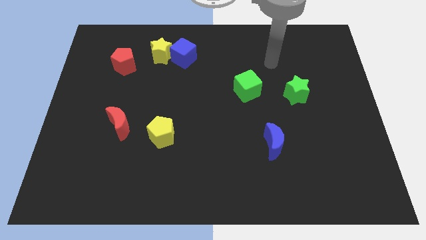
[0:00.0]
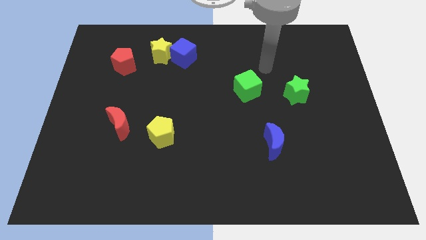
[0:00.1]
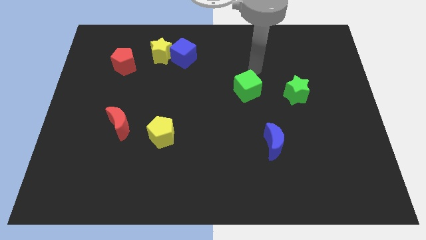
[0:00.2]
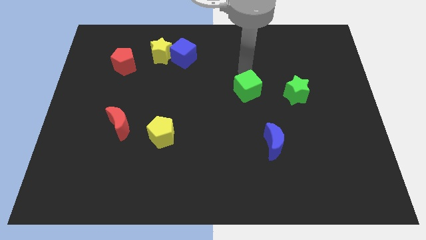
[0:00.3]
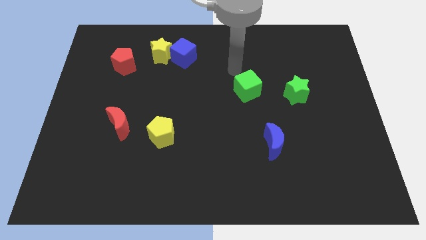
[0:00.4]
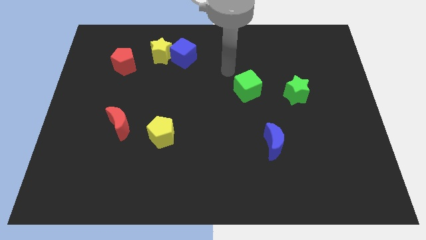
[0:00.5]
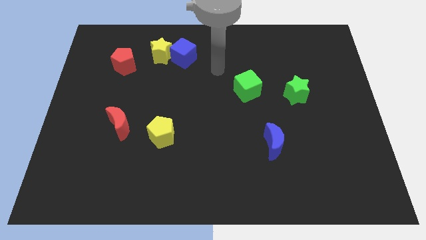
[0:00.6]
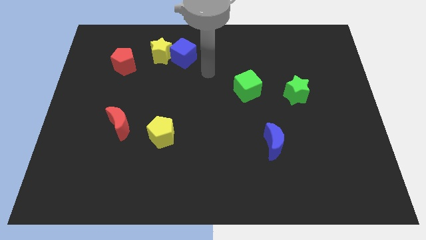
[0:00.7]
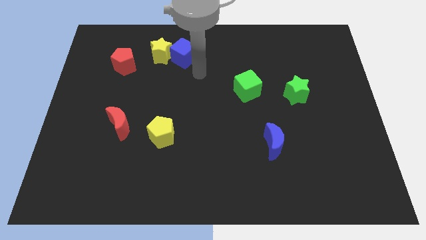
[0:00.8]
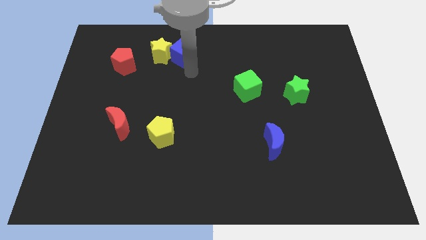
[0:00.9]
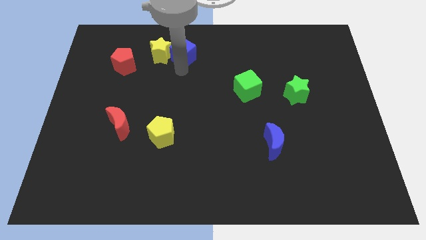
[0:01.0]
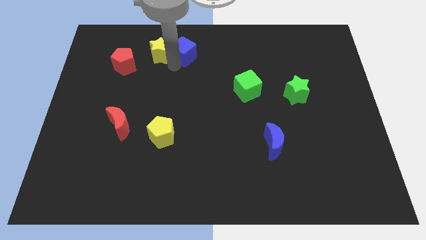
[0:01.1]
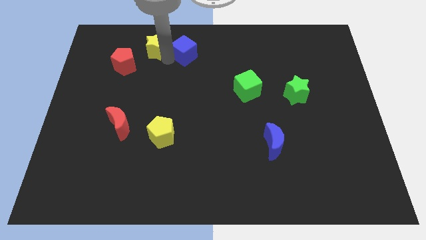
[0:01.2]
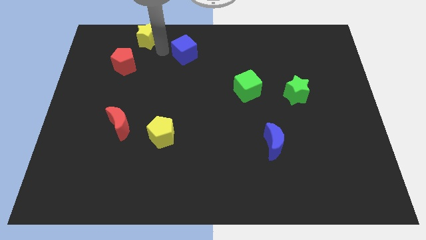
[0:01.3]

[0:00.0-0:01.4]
pull the blue cube apart from the yellow star

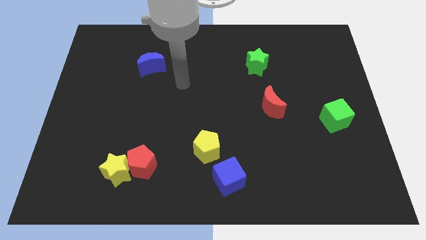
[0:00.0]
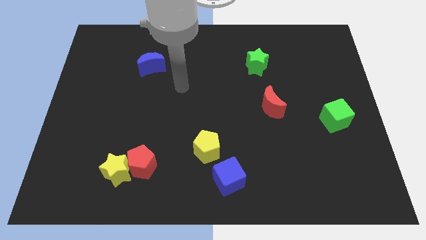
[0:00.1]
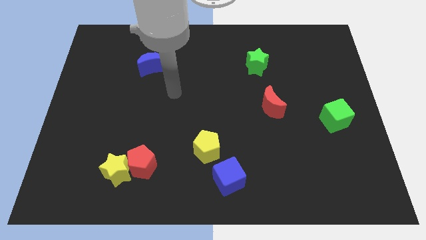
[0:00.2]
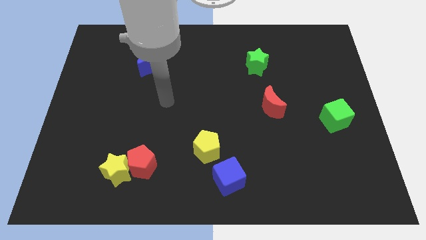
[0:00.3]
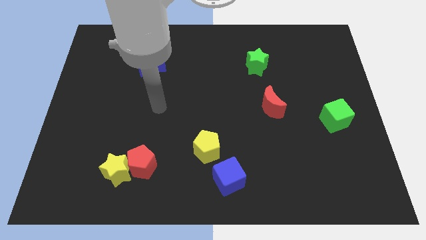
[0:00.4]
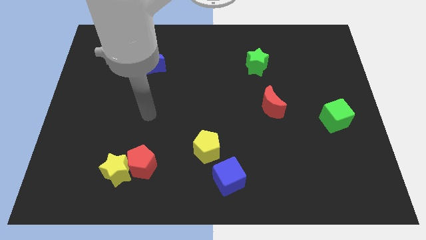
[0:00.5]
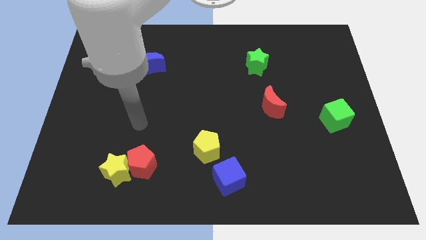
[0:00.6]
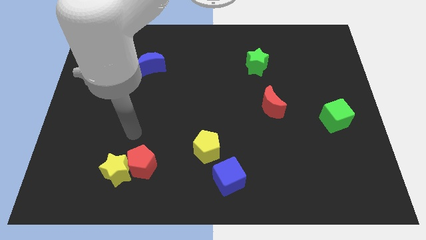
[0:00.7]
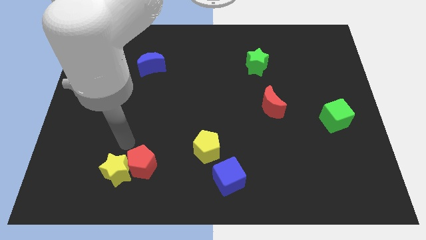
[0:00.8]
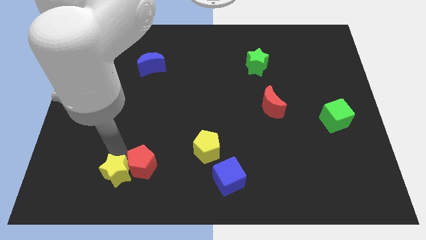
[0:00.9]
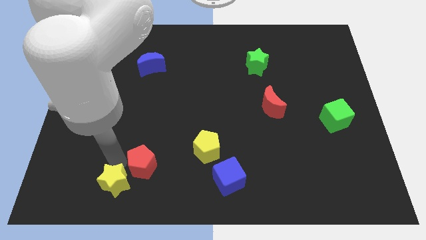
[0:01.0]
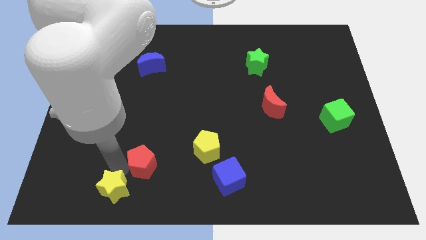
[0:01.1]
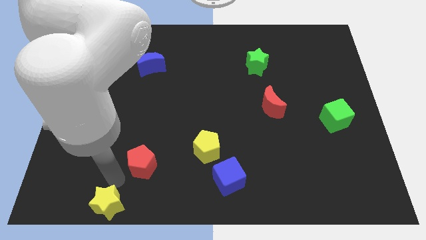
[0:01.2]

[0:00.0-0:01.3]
pull the red pentagon apart from the yellow star

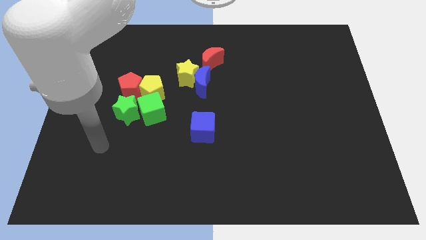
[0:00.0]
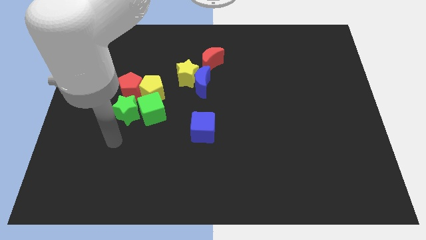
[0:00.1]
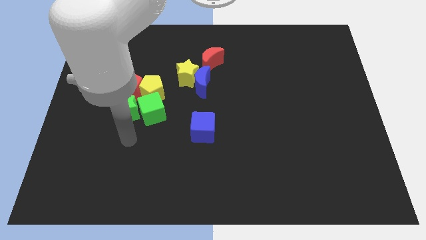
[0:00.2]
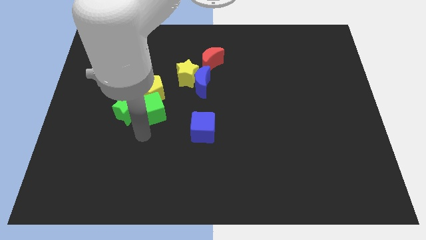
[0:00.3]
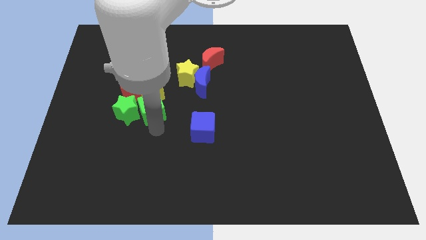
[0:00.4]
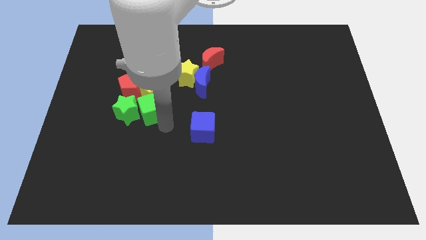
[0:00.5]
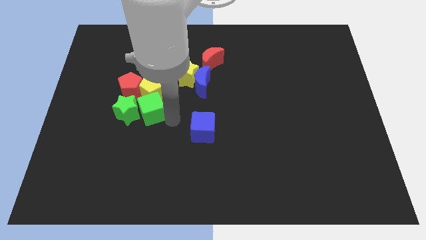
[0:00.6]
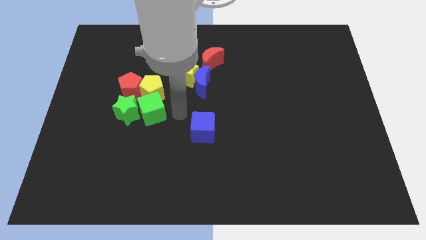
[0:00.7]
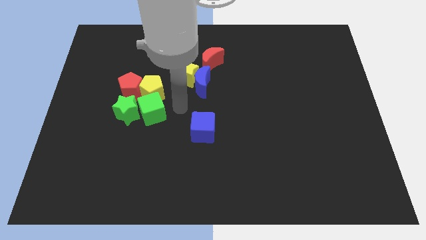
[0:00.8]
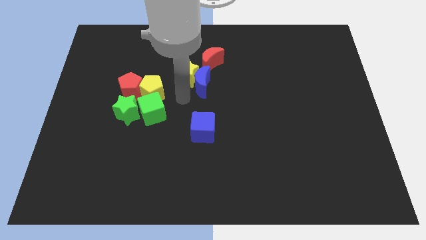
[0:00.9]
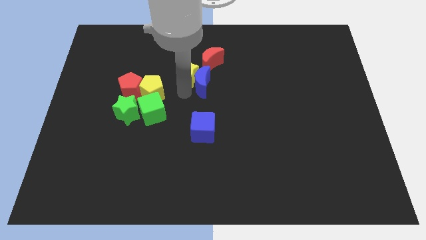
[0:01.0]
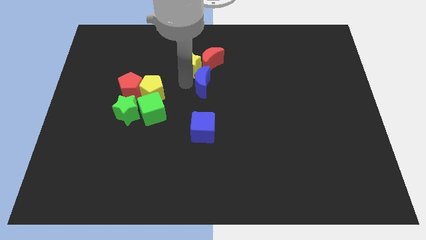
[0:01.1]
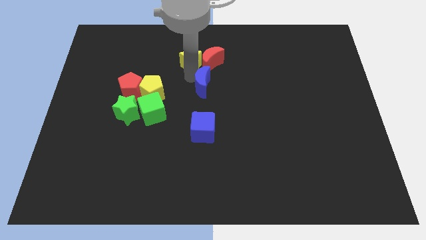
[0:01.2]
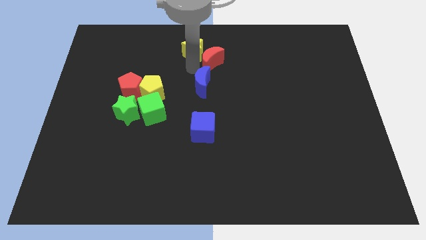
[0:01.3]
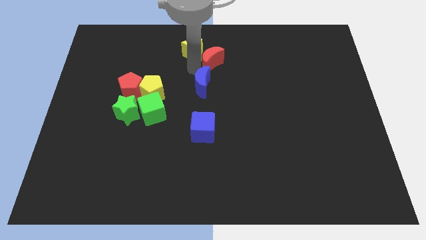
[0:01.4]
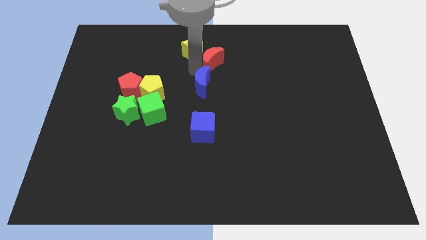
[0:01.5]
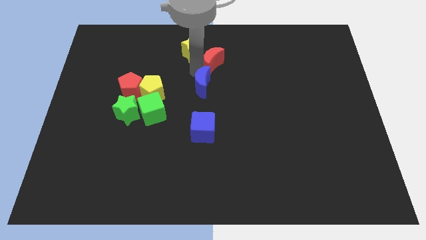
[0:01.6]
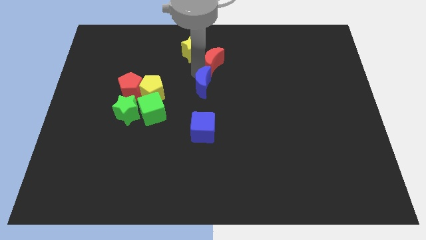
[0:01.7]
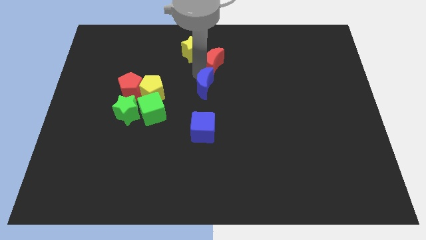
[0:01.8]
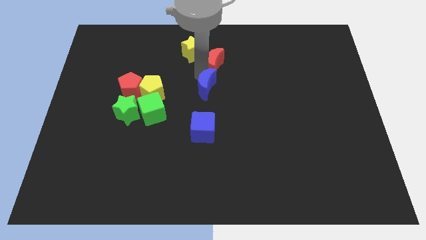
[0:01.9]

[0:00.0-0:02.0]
separate the blue moon from the yellow star and red moon

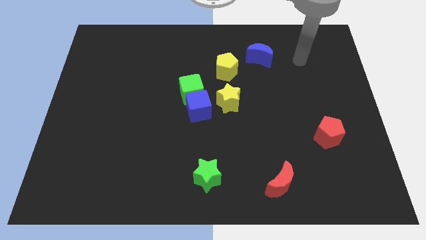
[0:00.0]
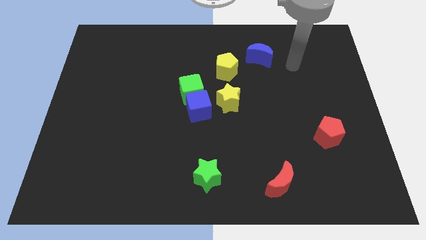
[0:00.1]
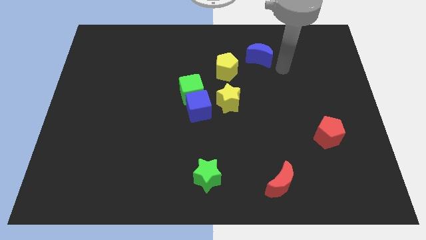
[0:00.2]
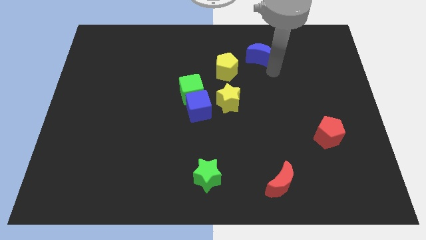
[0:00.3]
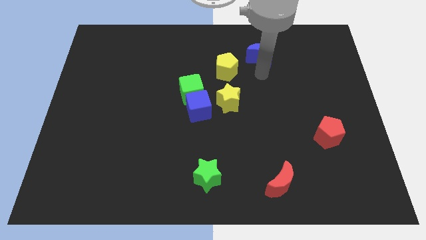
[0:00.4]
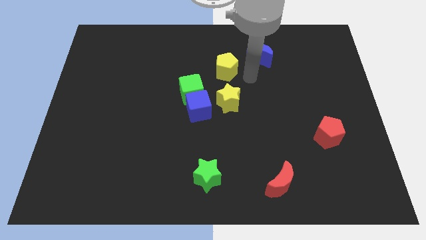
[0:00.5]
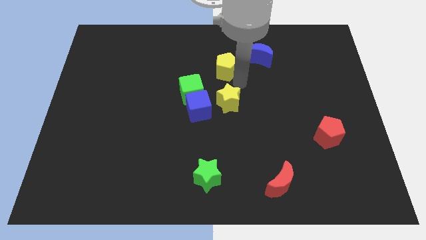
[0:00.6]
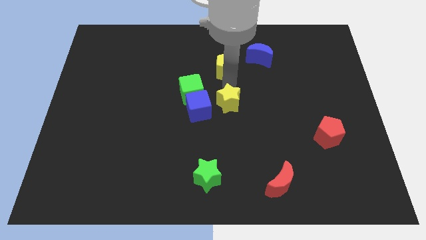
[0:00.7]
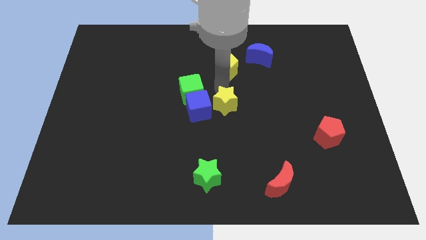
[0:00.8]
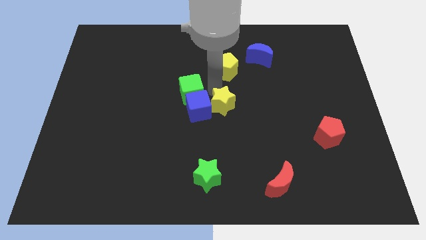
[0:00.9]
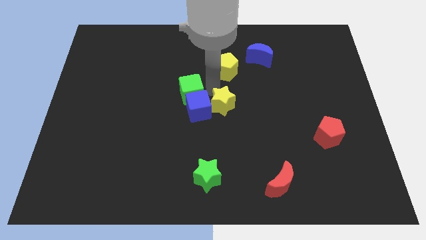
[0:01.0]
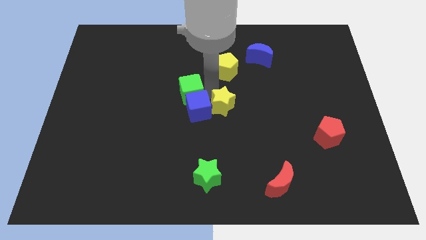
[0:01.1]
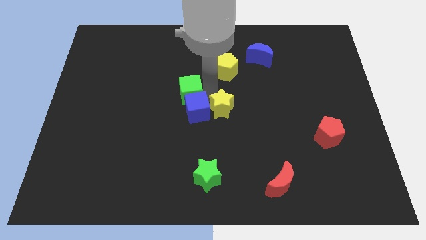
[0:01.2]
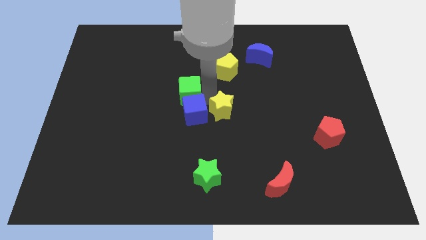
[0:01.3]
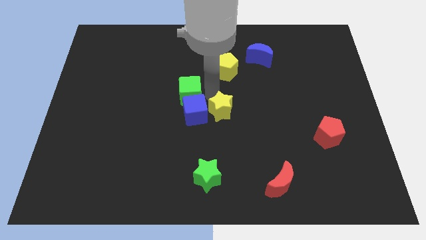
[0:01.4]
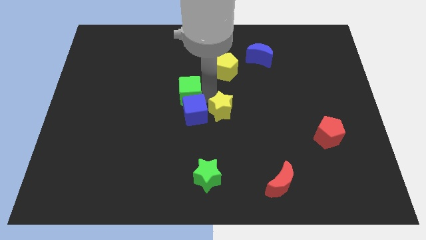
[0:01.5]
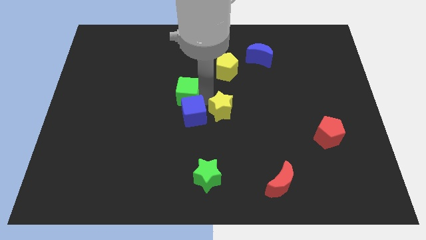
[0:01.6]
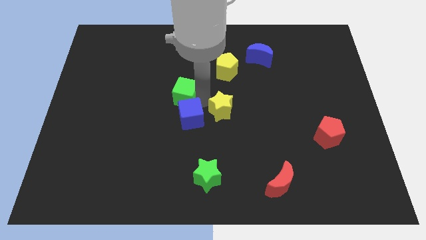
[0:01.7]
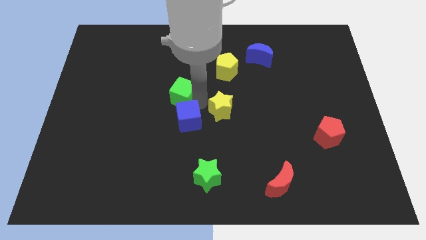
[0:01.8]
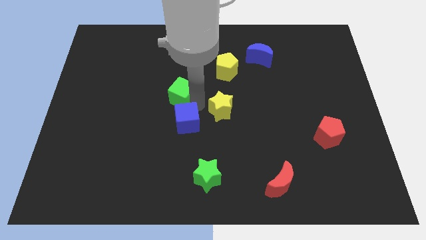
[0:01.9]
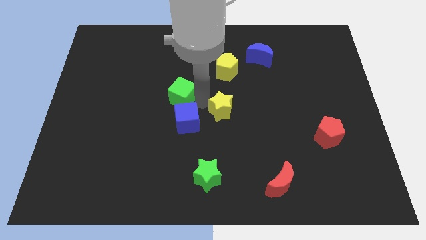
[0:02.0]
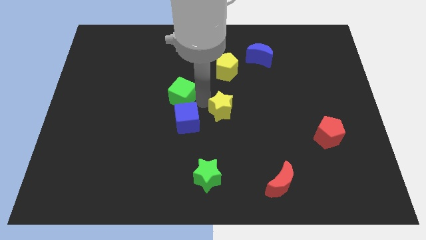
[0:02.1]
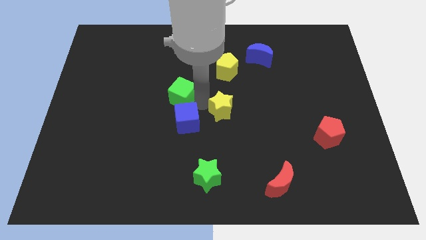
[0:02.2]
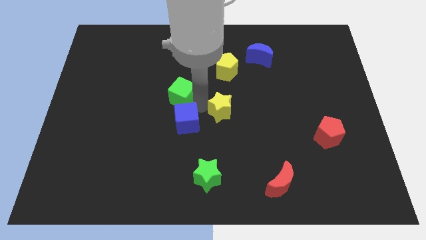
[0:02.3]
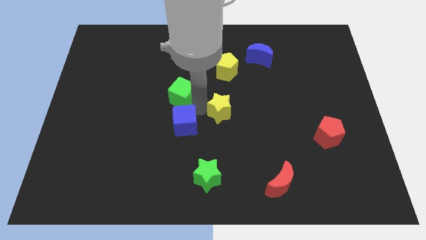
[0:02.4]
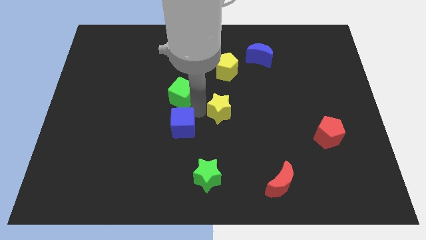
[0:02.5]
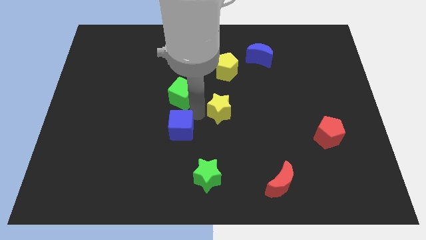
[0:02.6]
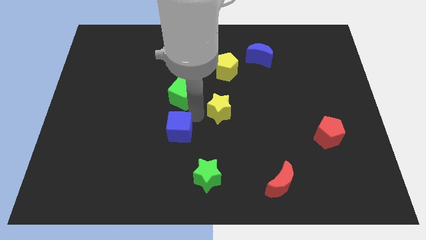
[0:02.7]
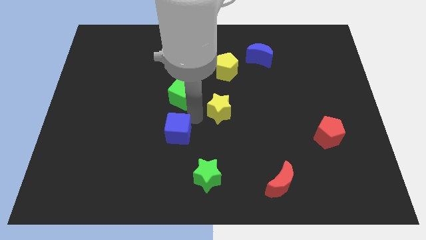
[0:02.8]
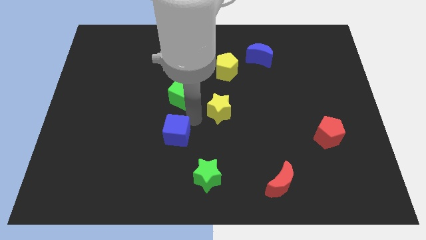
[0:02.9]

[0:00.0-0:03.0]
pull the blue cube apart from the green cube and yellow star

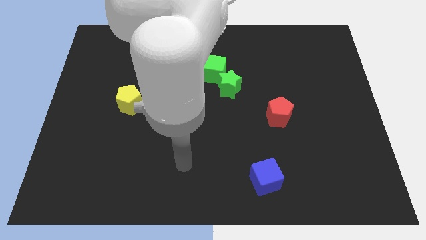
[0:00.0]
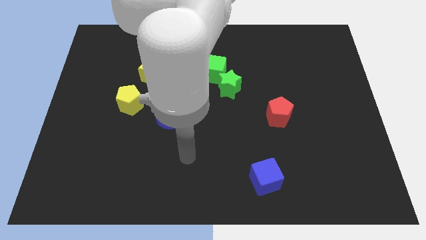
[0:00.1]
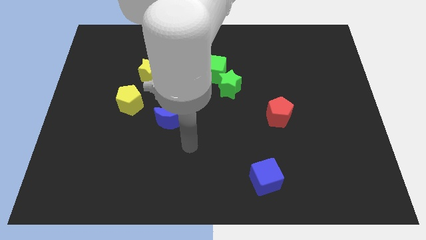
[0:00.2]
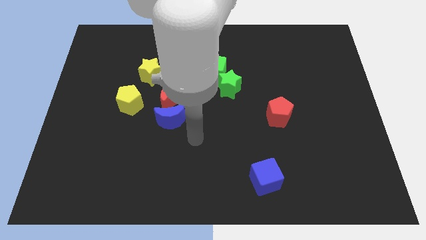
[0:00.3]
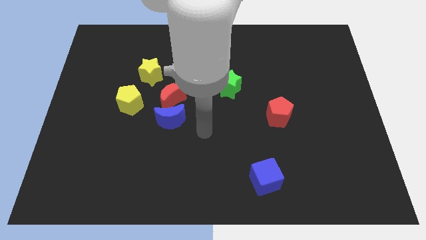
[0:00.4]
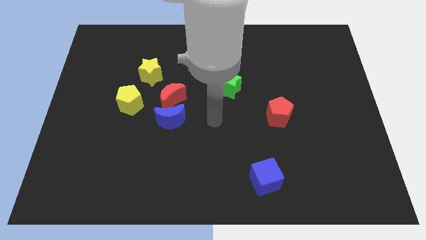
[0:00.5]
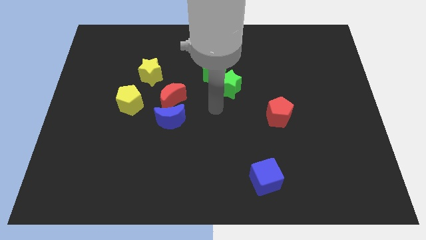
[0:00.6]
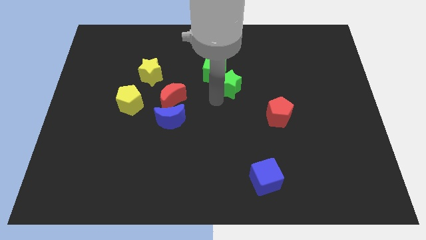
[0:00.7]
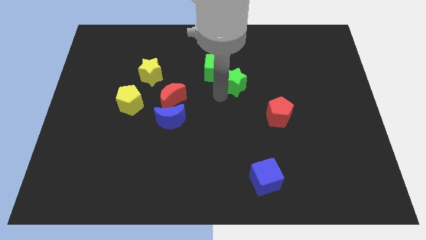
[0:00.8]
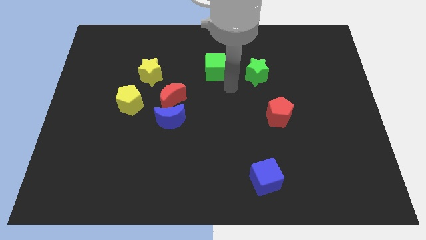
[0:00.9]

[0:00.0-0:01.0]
pull the green cube apart from the green star

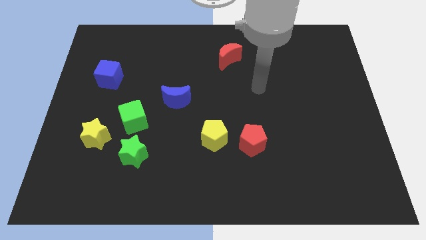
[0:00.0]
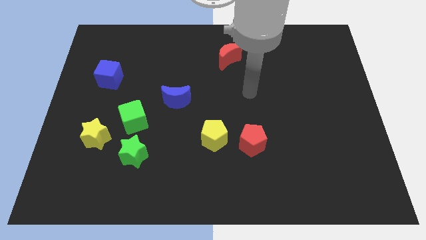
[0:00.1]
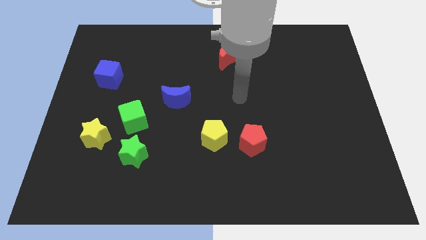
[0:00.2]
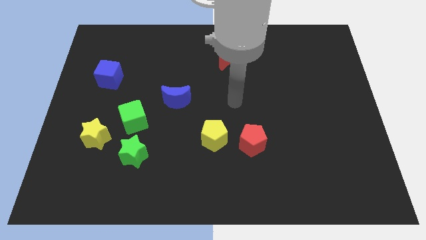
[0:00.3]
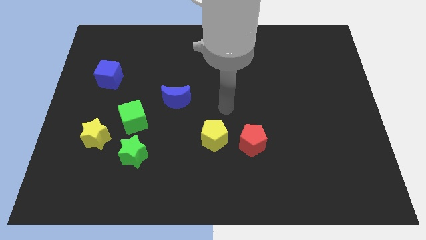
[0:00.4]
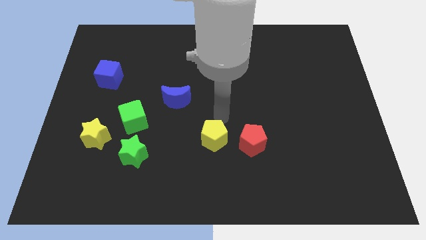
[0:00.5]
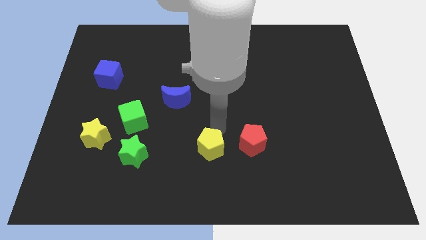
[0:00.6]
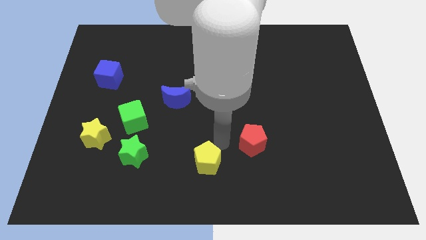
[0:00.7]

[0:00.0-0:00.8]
move the red pentagon away from the yellow pentagon
